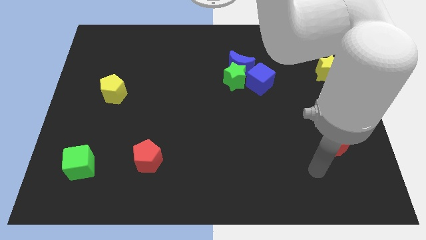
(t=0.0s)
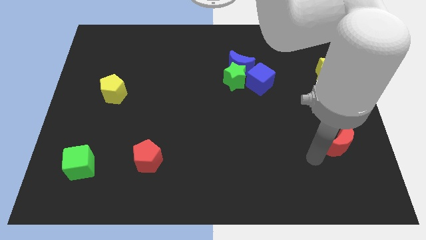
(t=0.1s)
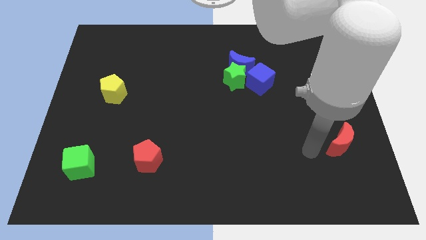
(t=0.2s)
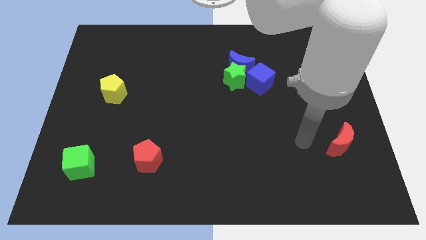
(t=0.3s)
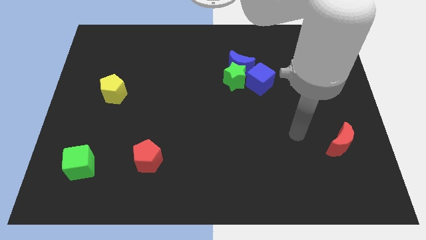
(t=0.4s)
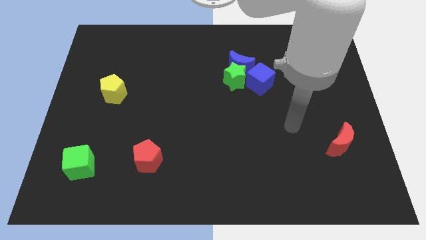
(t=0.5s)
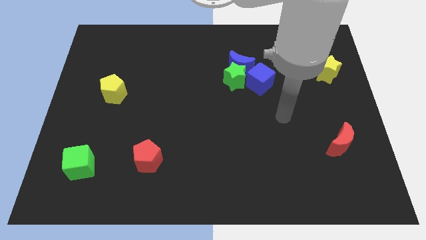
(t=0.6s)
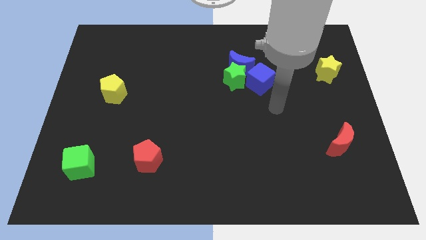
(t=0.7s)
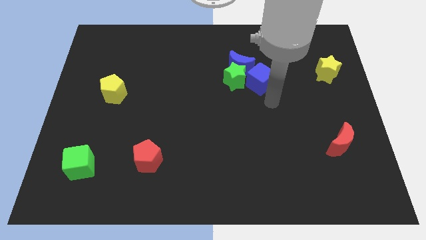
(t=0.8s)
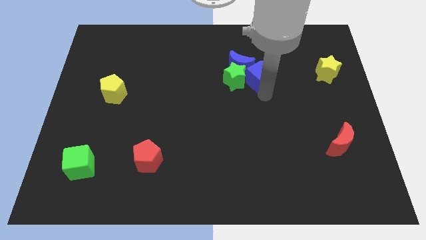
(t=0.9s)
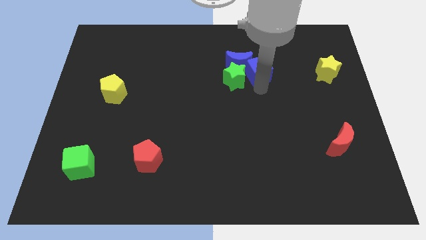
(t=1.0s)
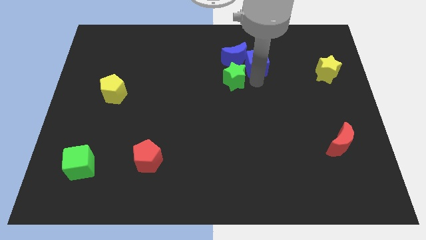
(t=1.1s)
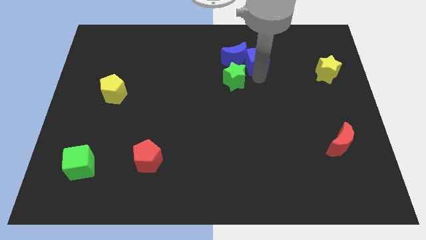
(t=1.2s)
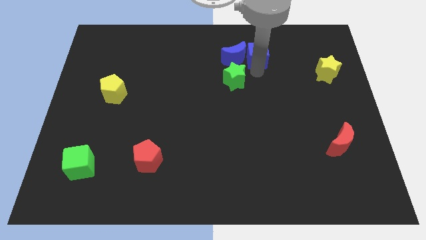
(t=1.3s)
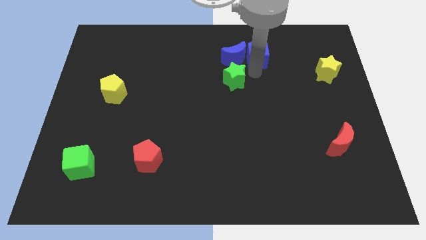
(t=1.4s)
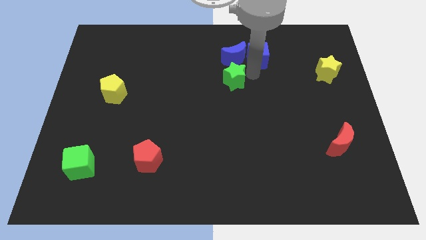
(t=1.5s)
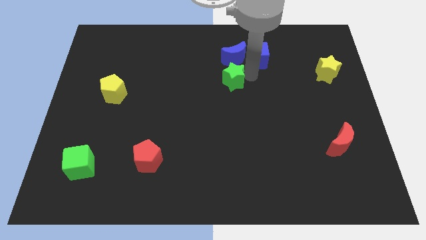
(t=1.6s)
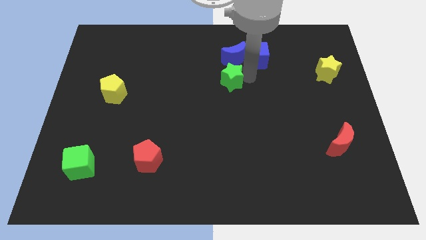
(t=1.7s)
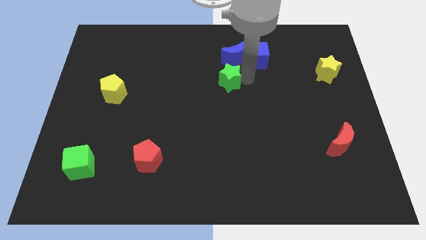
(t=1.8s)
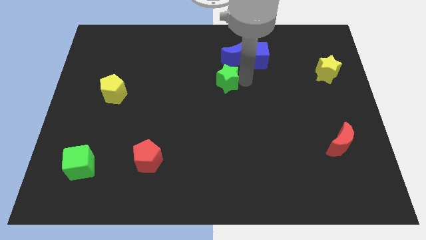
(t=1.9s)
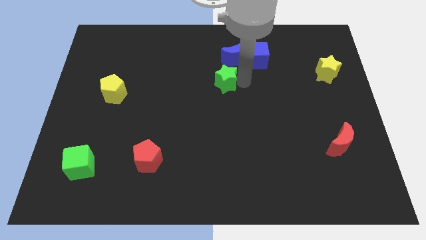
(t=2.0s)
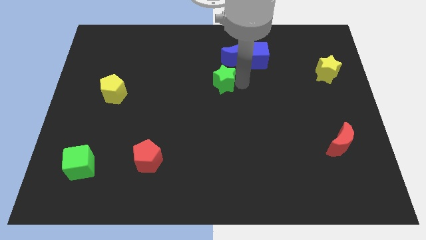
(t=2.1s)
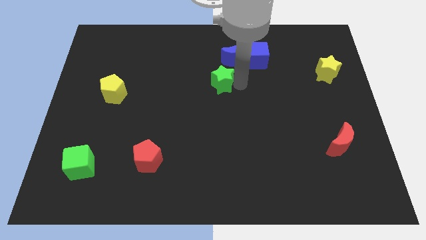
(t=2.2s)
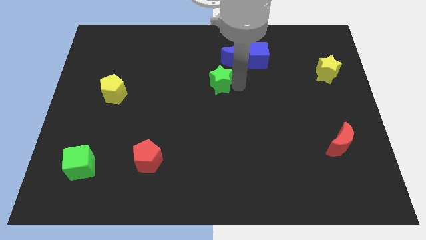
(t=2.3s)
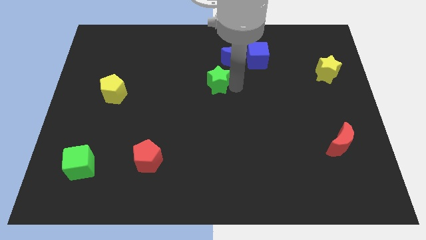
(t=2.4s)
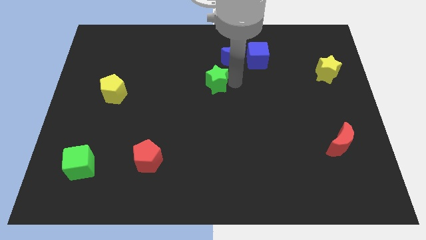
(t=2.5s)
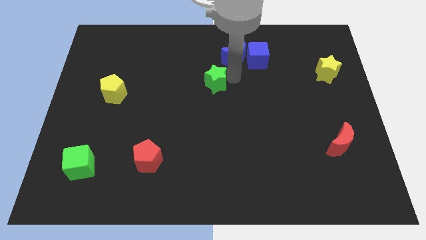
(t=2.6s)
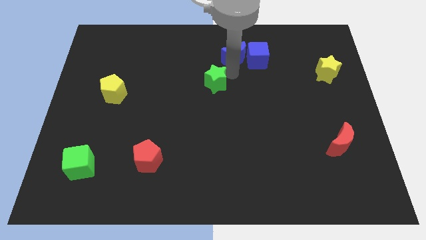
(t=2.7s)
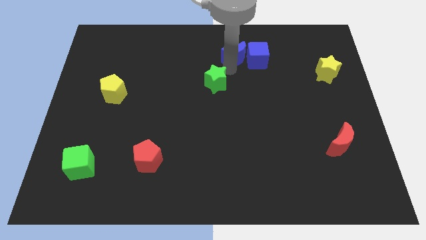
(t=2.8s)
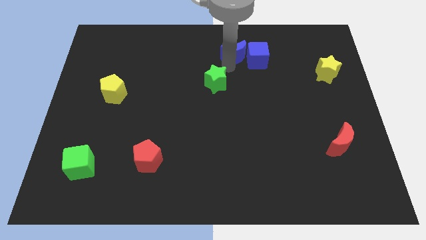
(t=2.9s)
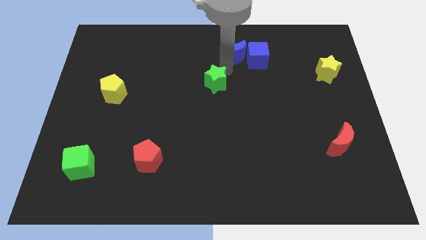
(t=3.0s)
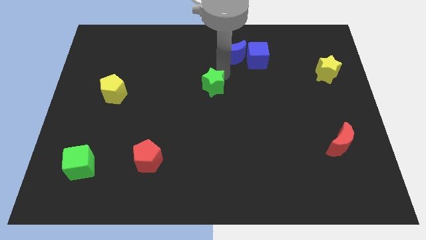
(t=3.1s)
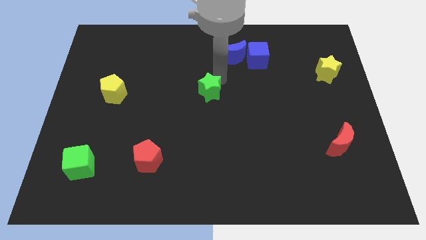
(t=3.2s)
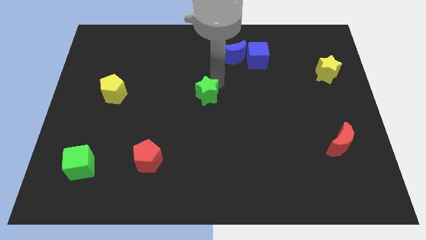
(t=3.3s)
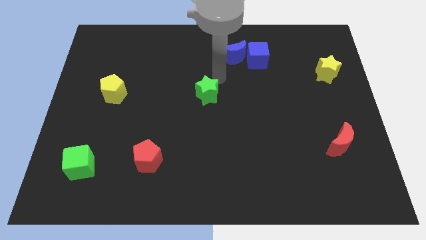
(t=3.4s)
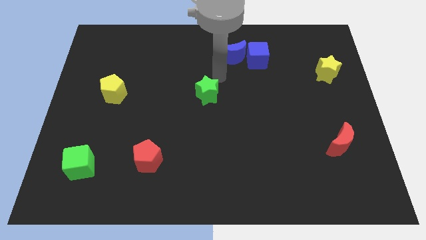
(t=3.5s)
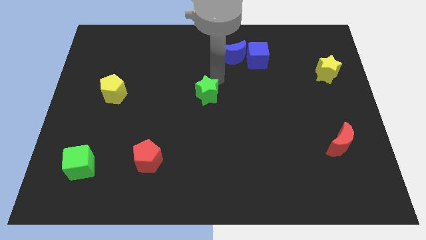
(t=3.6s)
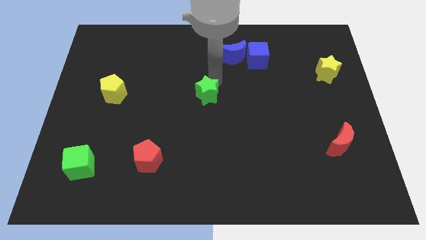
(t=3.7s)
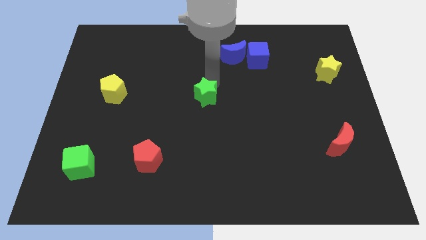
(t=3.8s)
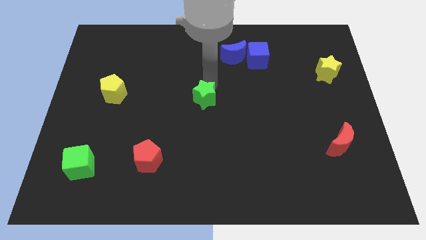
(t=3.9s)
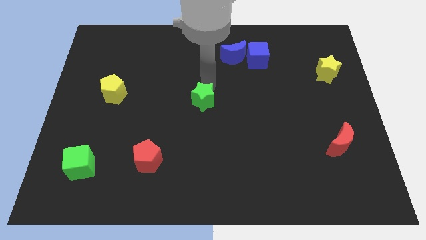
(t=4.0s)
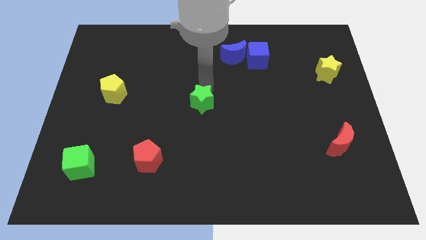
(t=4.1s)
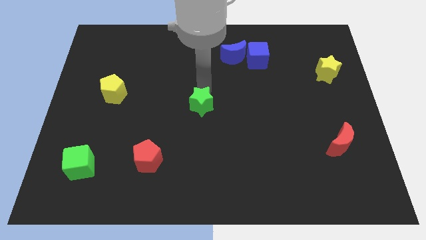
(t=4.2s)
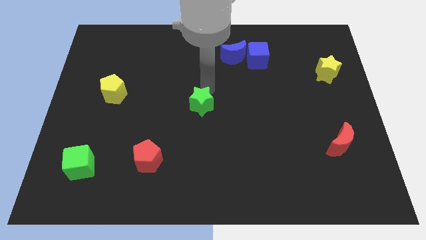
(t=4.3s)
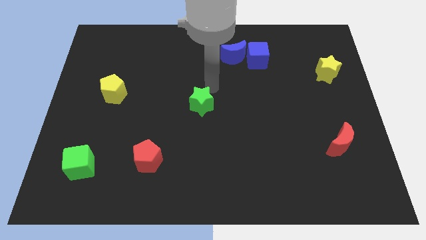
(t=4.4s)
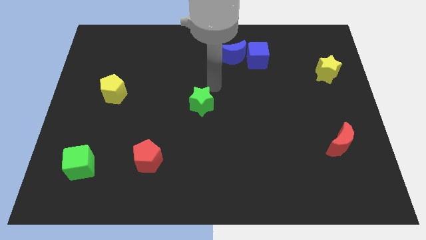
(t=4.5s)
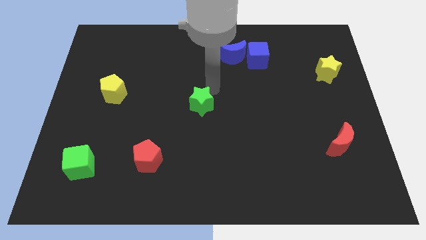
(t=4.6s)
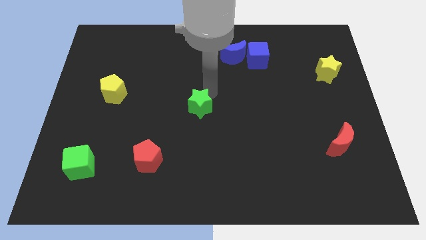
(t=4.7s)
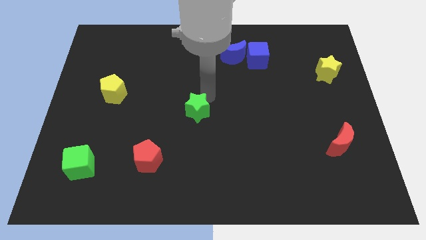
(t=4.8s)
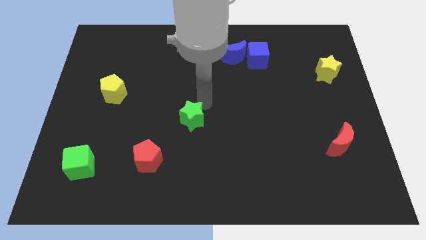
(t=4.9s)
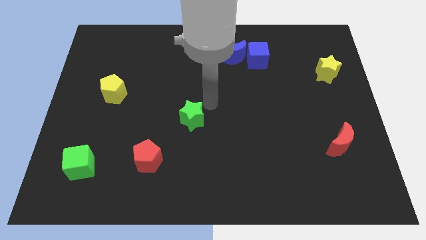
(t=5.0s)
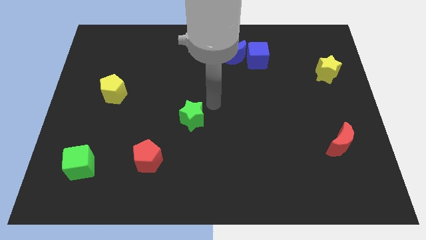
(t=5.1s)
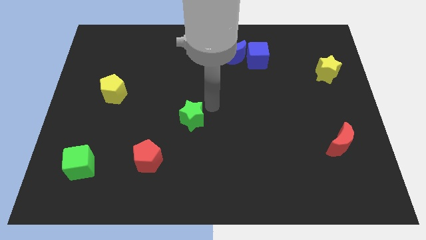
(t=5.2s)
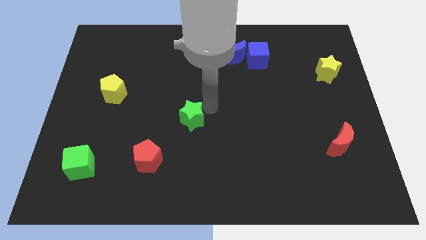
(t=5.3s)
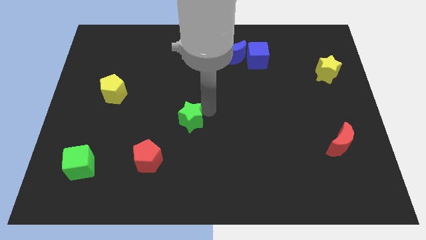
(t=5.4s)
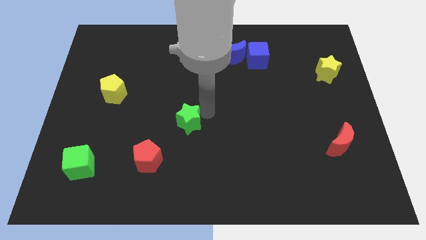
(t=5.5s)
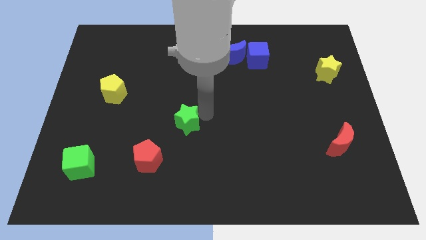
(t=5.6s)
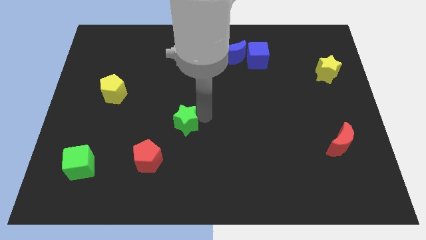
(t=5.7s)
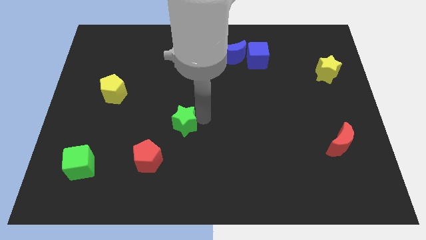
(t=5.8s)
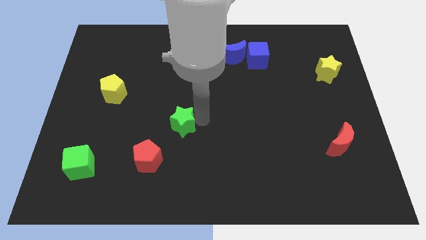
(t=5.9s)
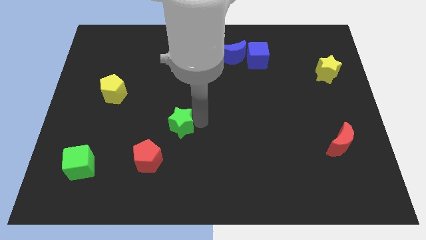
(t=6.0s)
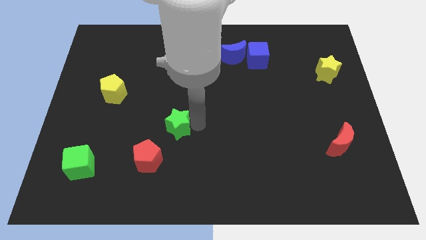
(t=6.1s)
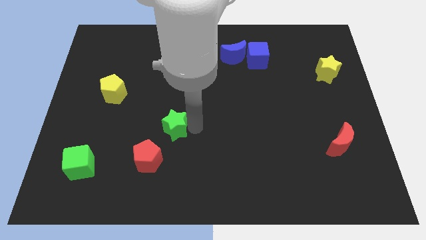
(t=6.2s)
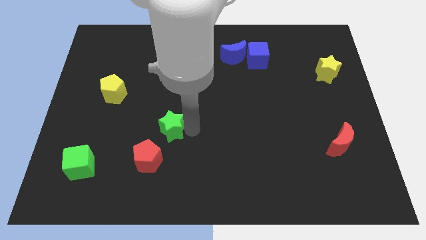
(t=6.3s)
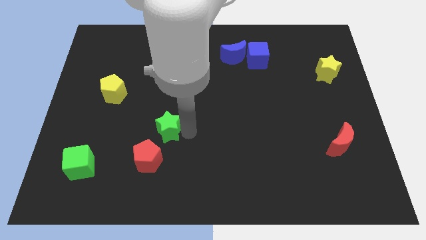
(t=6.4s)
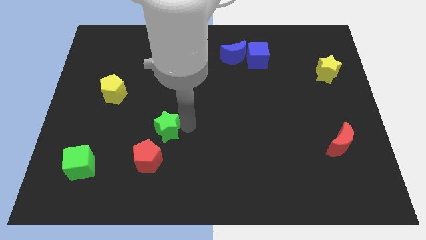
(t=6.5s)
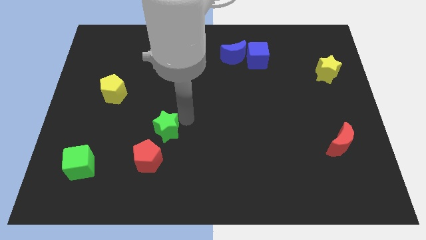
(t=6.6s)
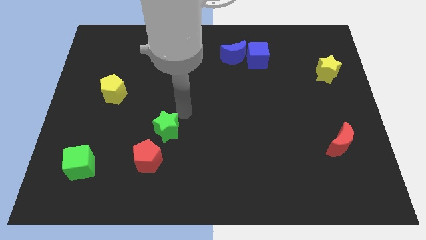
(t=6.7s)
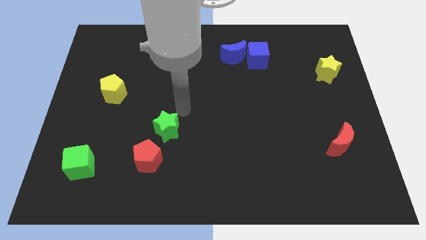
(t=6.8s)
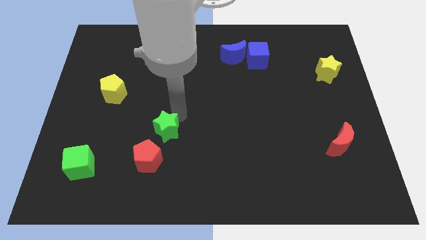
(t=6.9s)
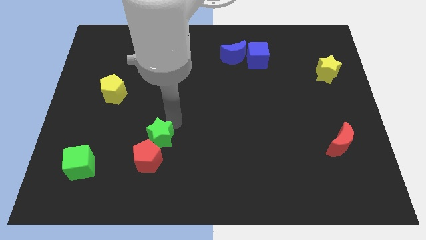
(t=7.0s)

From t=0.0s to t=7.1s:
push the green star next to the red pentagon

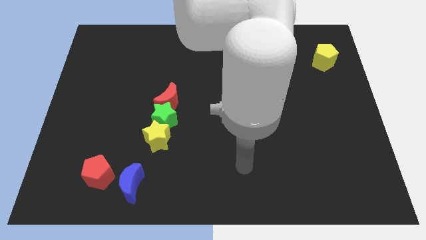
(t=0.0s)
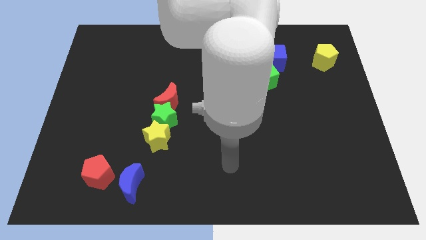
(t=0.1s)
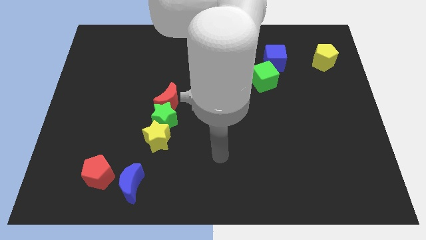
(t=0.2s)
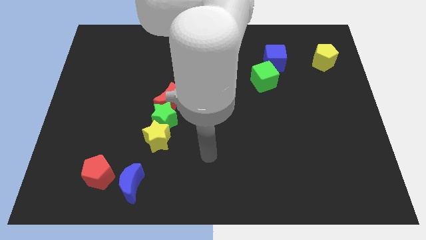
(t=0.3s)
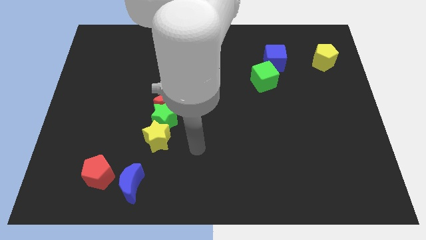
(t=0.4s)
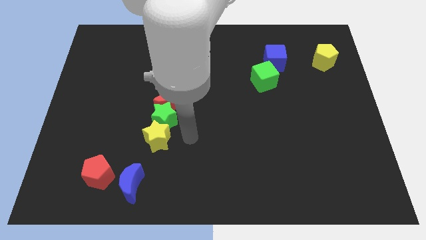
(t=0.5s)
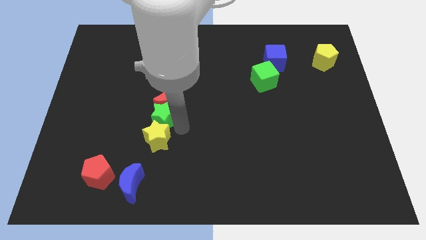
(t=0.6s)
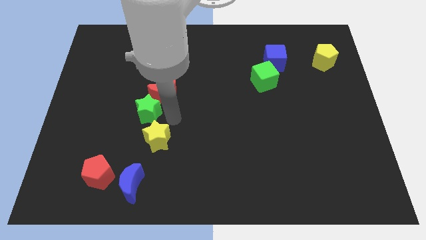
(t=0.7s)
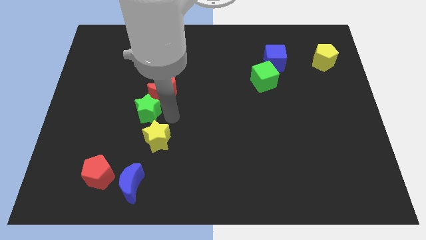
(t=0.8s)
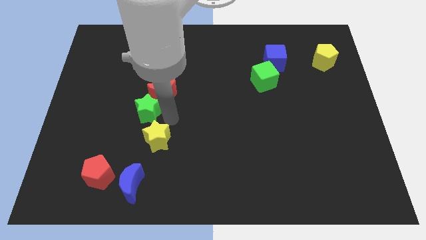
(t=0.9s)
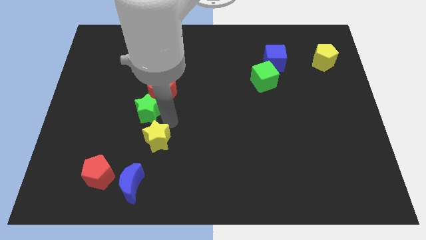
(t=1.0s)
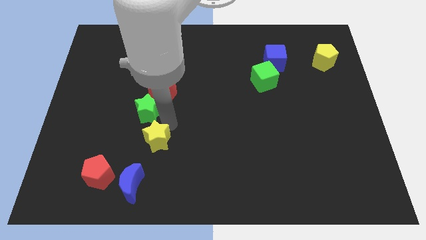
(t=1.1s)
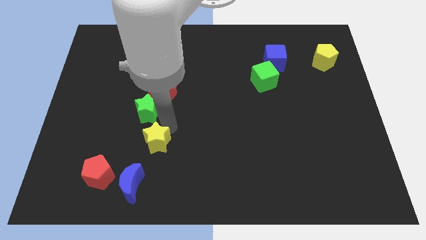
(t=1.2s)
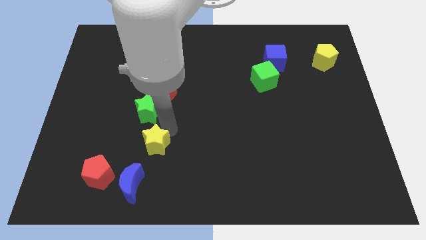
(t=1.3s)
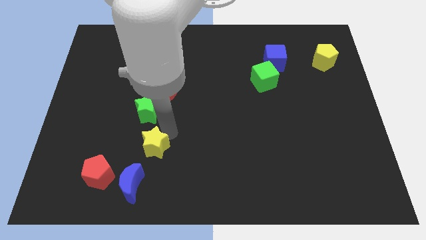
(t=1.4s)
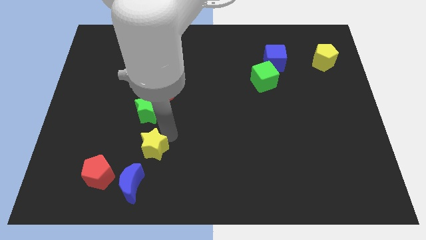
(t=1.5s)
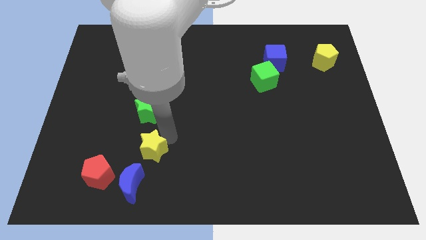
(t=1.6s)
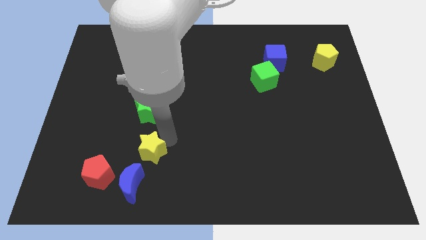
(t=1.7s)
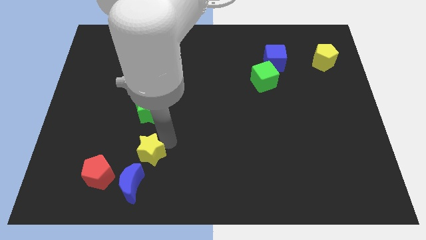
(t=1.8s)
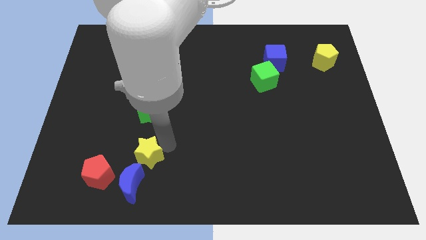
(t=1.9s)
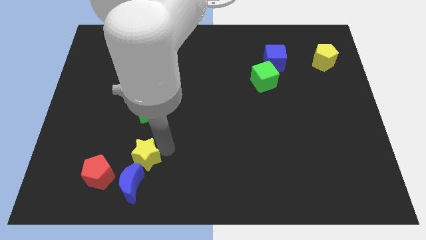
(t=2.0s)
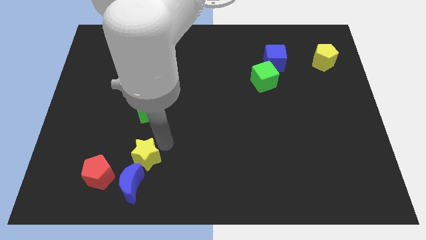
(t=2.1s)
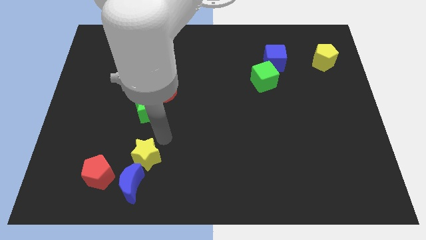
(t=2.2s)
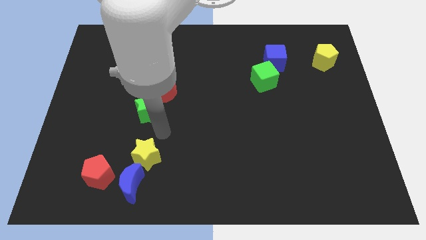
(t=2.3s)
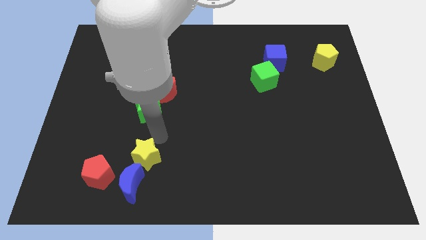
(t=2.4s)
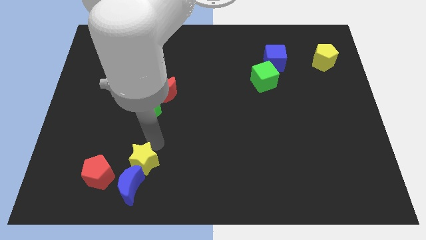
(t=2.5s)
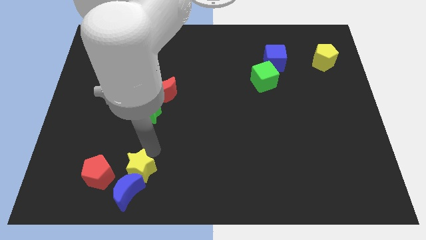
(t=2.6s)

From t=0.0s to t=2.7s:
move the yellow star to the blue moon
